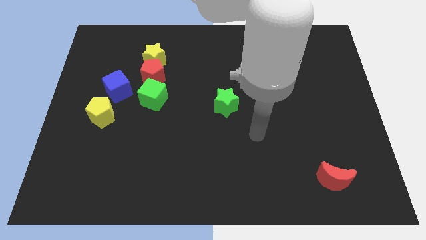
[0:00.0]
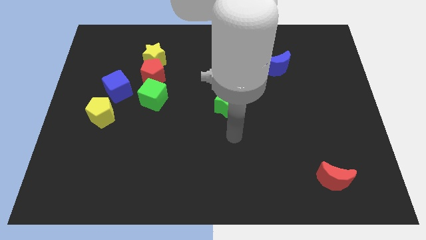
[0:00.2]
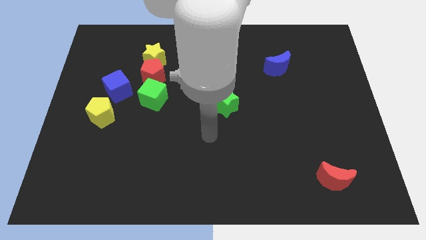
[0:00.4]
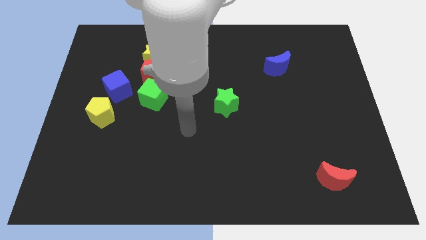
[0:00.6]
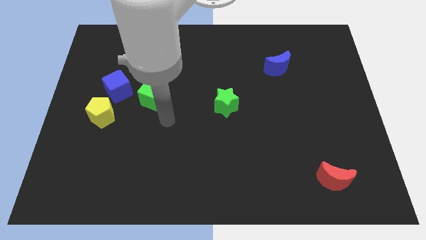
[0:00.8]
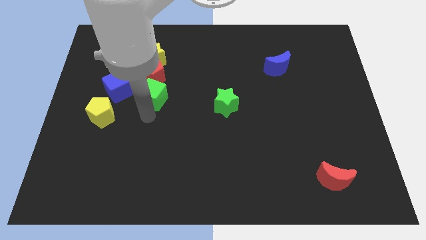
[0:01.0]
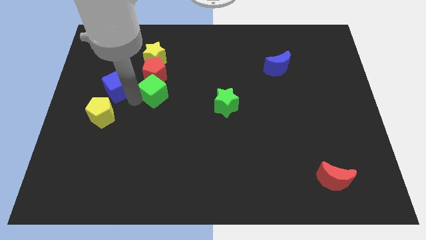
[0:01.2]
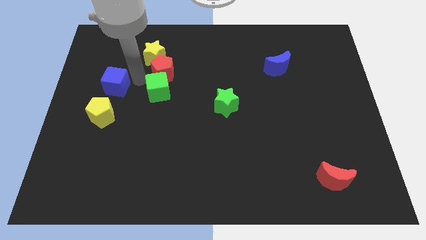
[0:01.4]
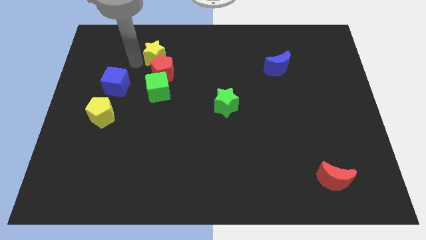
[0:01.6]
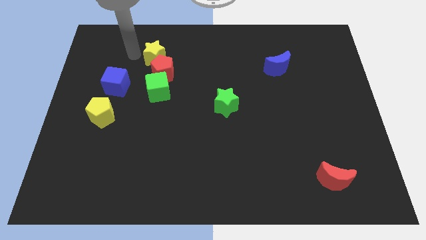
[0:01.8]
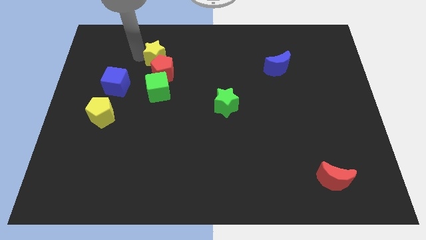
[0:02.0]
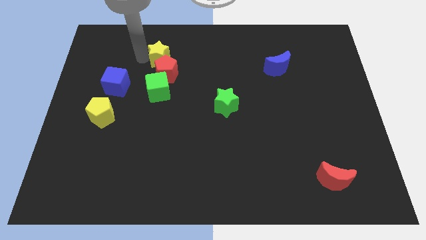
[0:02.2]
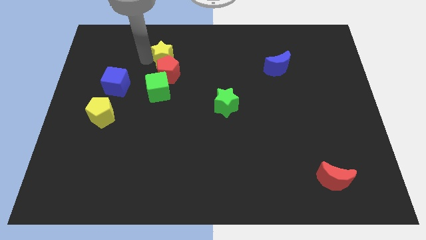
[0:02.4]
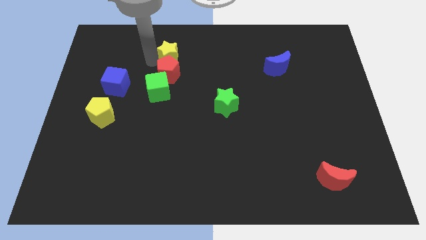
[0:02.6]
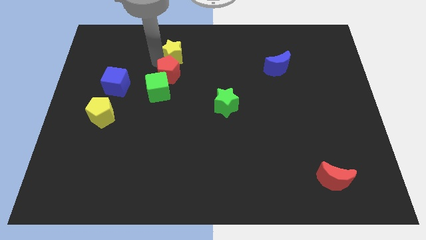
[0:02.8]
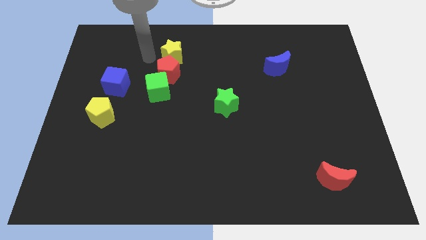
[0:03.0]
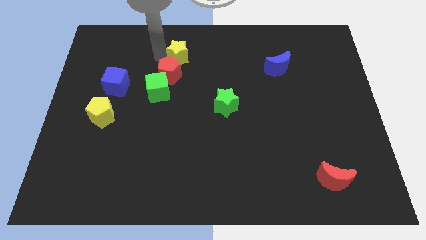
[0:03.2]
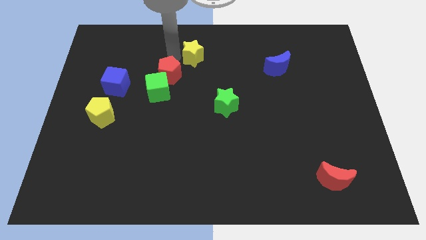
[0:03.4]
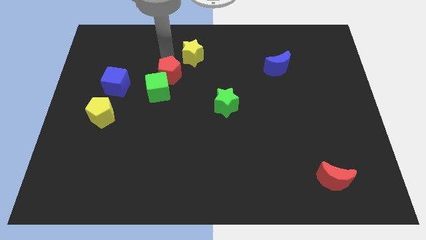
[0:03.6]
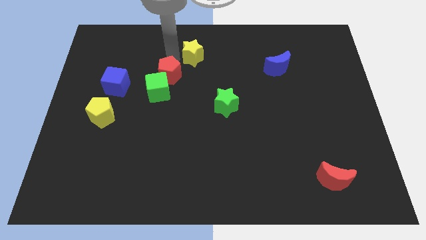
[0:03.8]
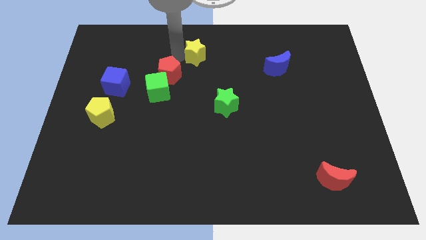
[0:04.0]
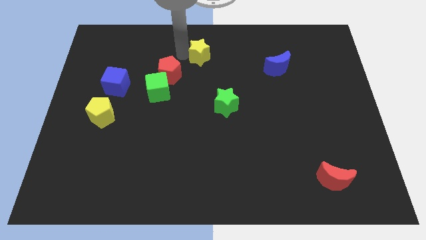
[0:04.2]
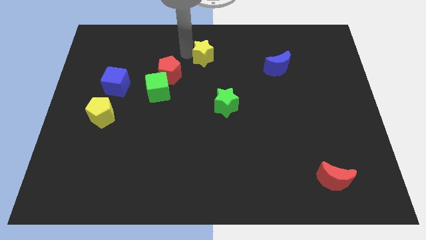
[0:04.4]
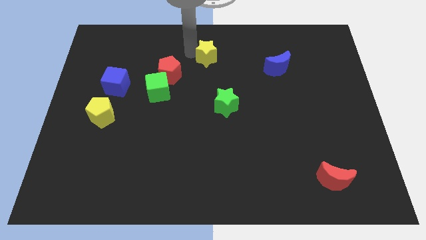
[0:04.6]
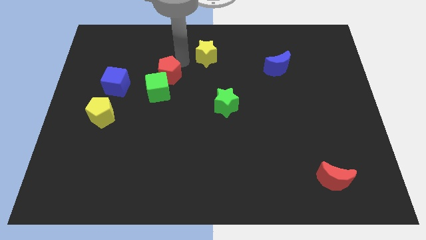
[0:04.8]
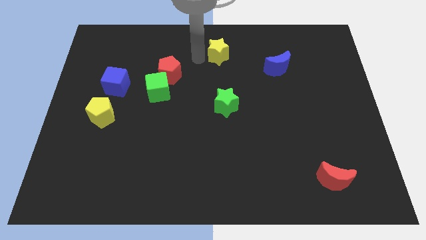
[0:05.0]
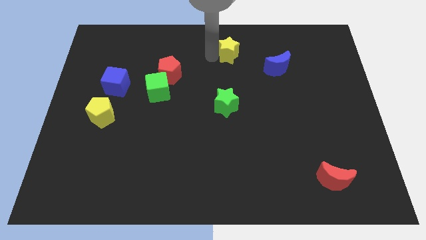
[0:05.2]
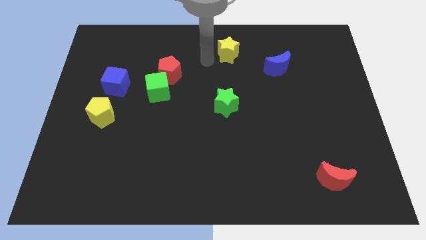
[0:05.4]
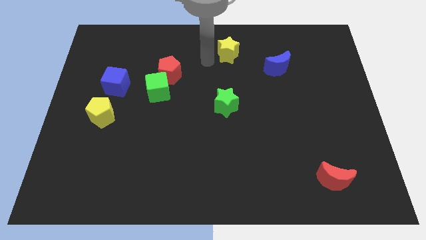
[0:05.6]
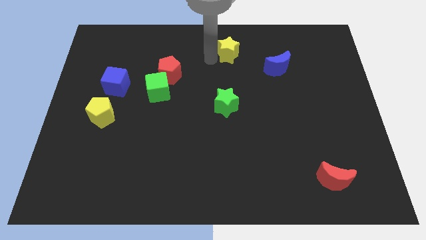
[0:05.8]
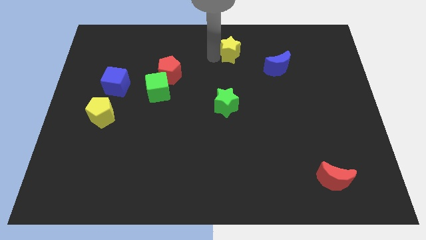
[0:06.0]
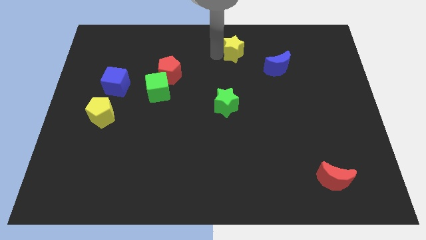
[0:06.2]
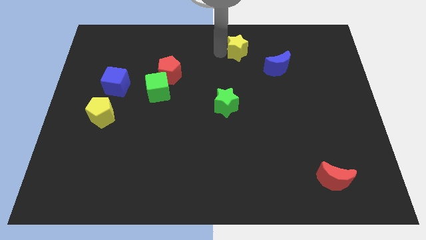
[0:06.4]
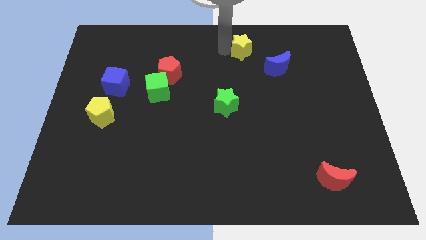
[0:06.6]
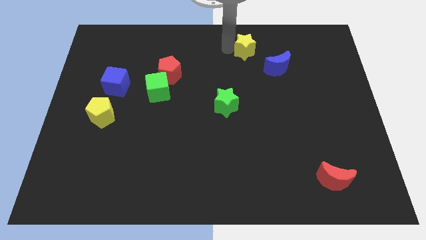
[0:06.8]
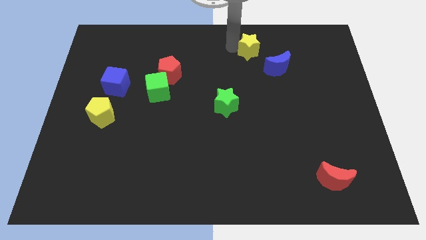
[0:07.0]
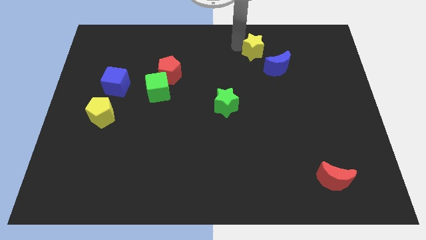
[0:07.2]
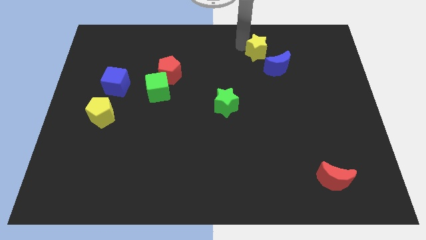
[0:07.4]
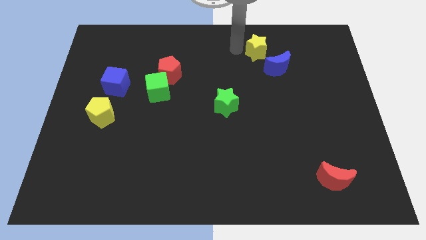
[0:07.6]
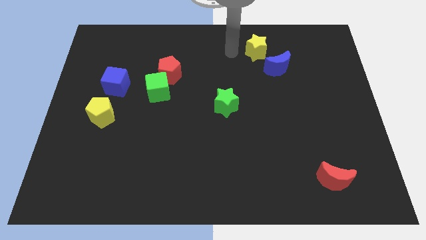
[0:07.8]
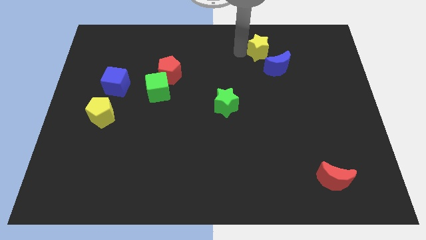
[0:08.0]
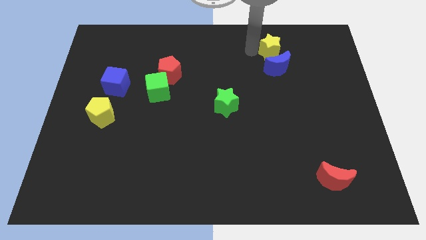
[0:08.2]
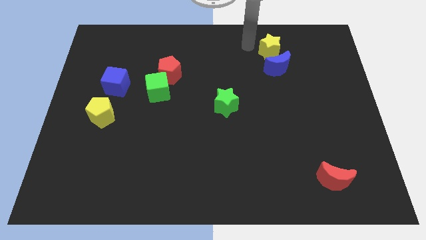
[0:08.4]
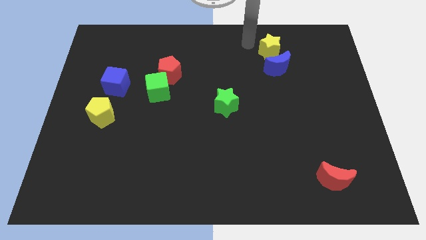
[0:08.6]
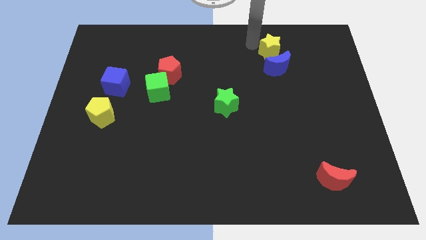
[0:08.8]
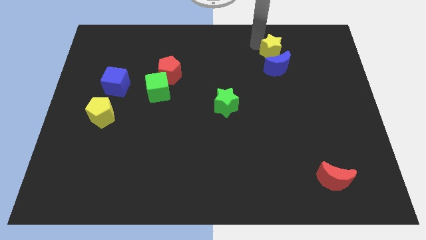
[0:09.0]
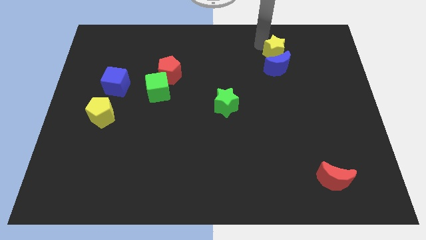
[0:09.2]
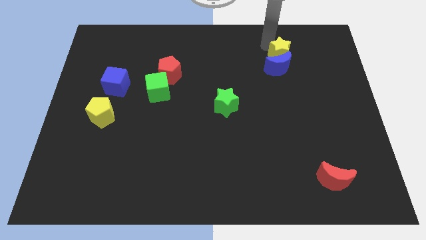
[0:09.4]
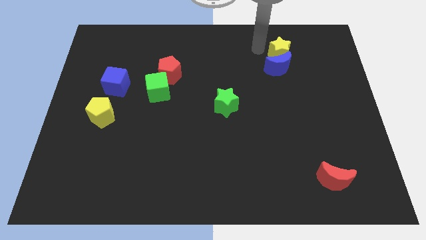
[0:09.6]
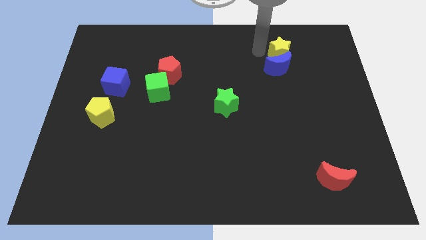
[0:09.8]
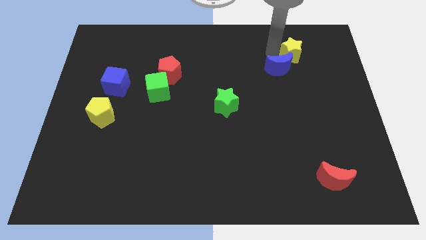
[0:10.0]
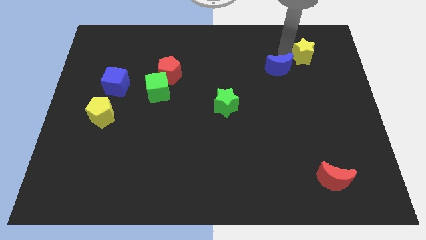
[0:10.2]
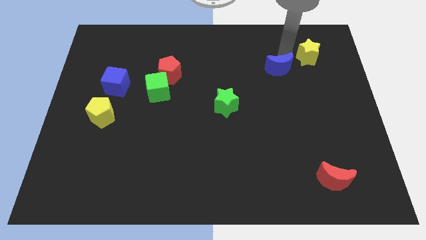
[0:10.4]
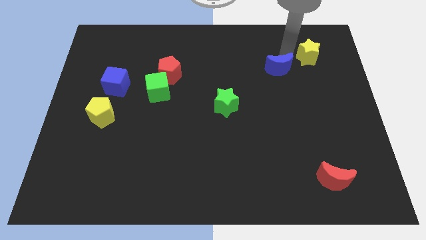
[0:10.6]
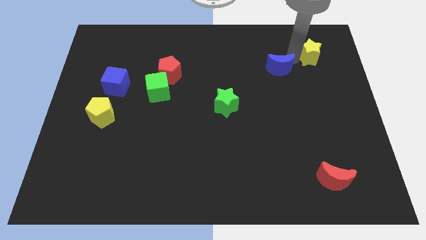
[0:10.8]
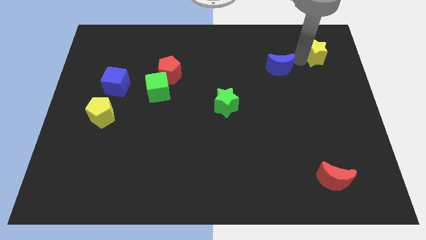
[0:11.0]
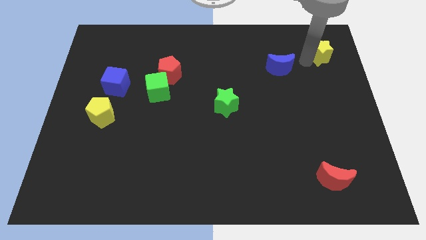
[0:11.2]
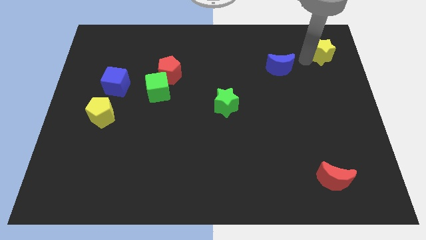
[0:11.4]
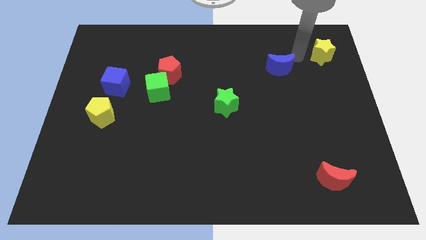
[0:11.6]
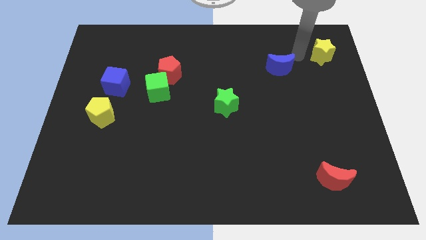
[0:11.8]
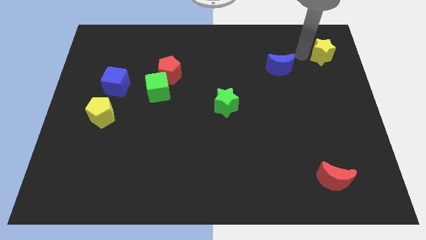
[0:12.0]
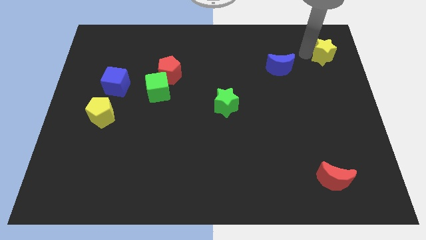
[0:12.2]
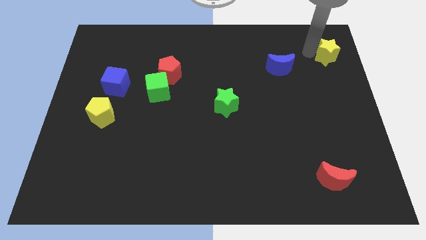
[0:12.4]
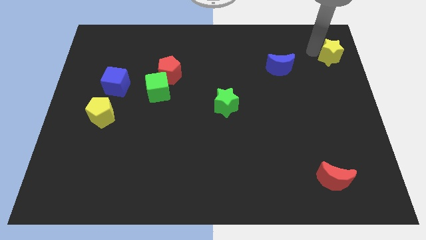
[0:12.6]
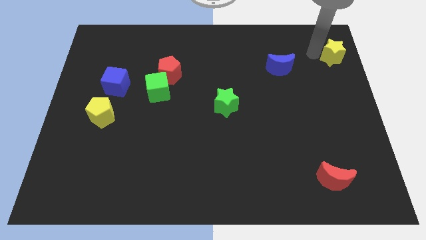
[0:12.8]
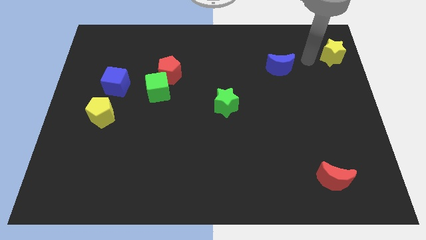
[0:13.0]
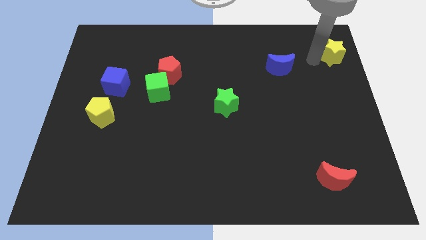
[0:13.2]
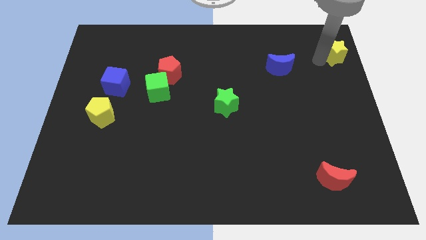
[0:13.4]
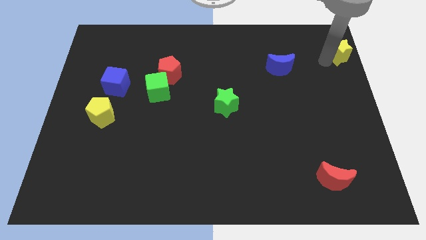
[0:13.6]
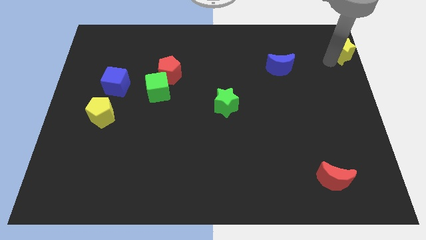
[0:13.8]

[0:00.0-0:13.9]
move the yellow star to the upper right corner
